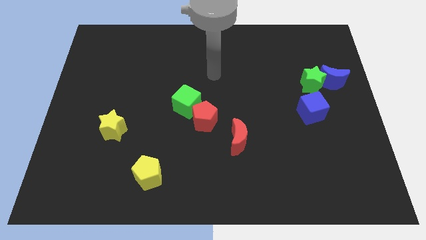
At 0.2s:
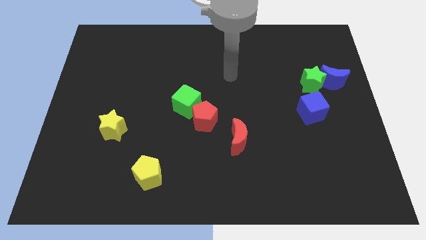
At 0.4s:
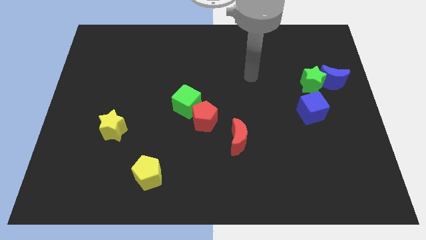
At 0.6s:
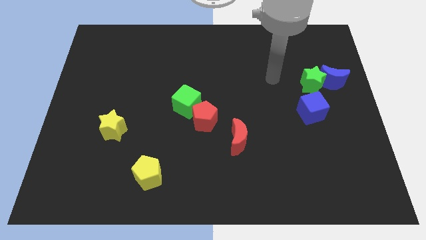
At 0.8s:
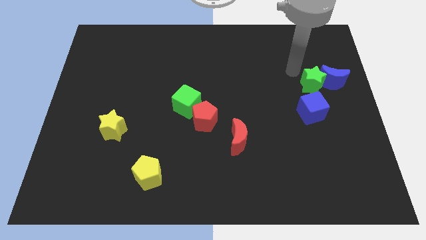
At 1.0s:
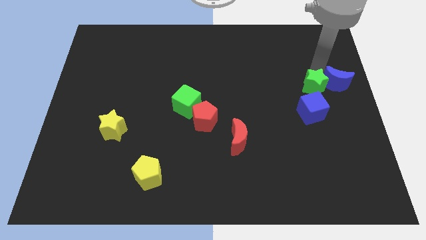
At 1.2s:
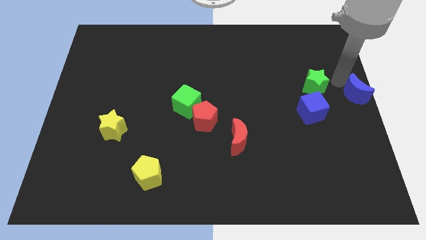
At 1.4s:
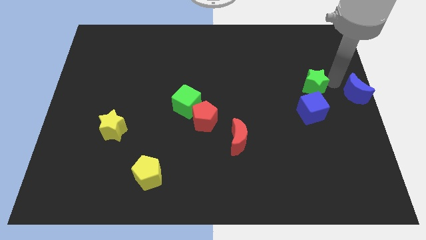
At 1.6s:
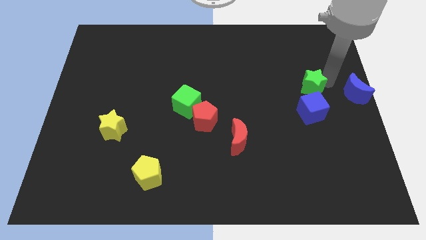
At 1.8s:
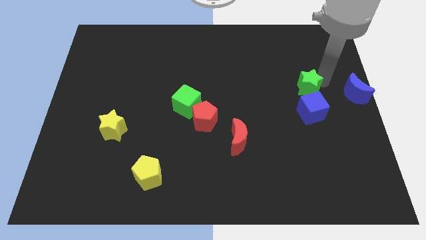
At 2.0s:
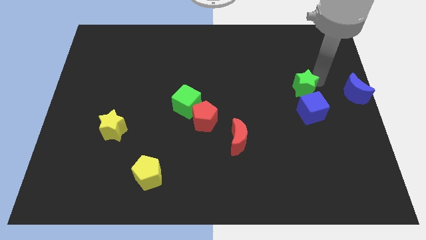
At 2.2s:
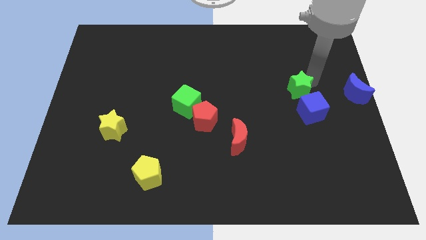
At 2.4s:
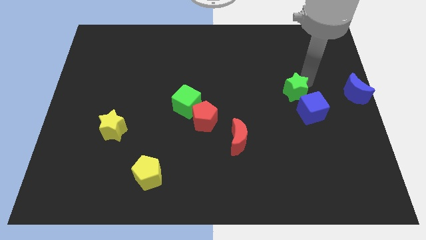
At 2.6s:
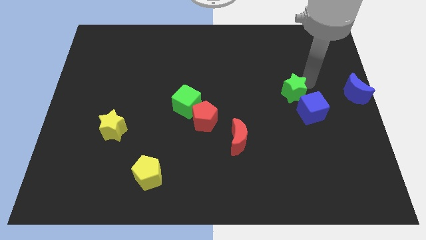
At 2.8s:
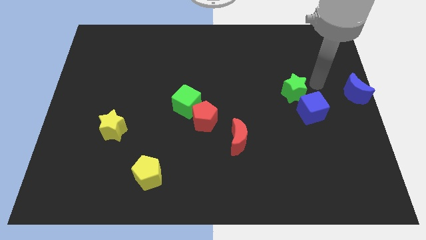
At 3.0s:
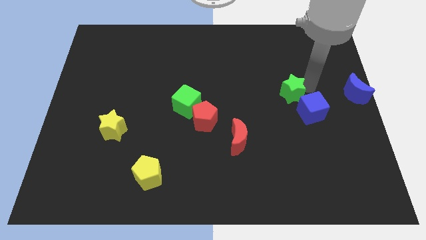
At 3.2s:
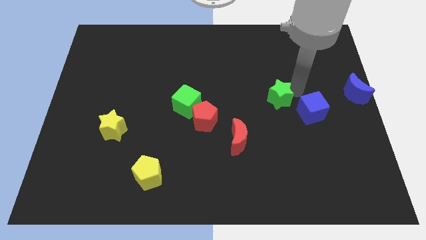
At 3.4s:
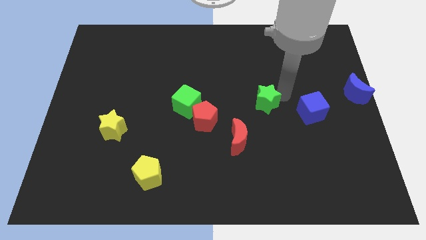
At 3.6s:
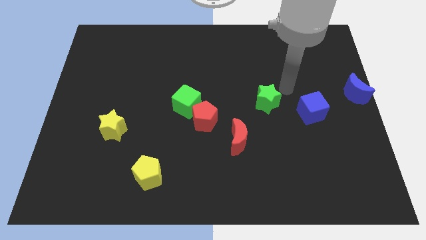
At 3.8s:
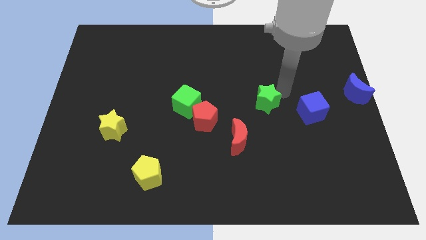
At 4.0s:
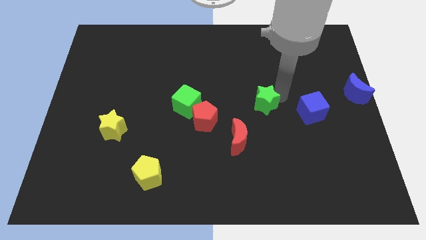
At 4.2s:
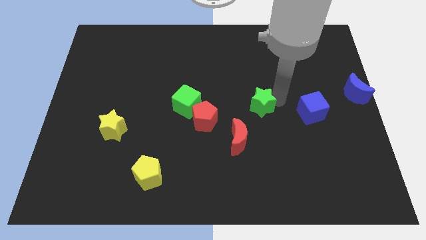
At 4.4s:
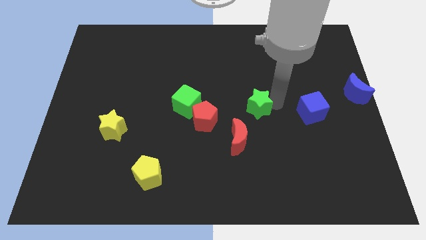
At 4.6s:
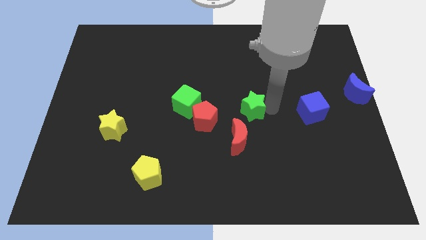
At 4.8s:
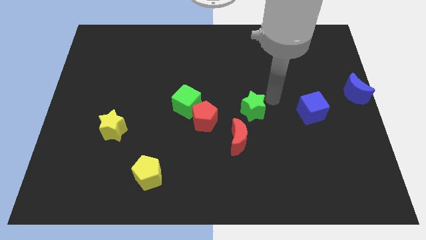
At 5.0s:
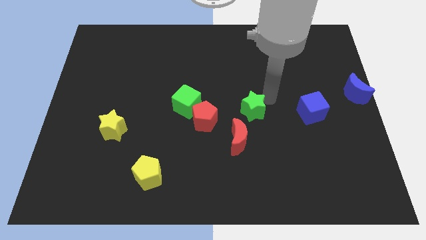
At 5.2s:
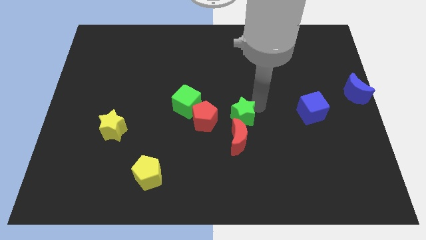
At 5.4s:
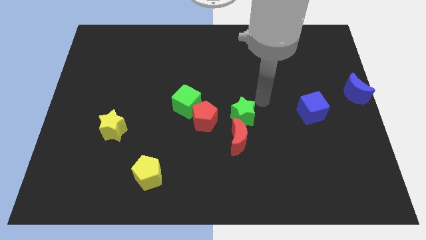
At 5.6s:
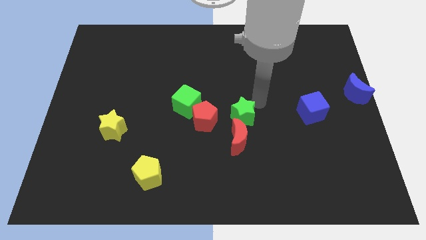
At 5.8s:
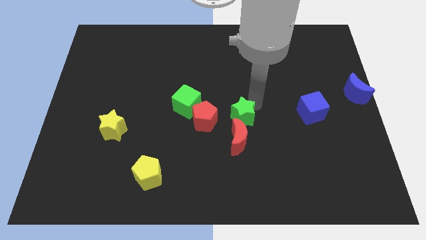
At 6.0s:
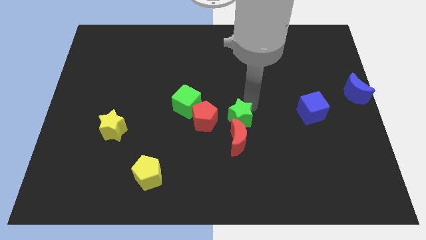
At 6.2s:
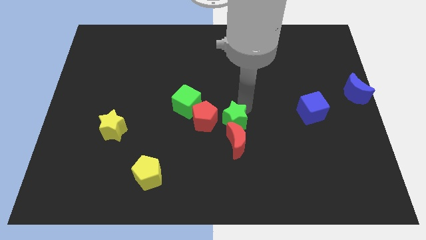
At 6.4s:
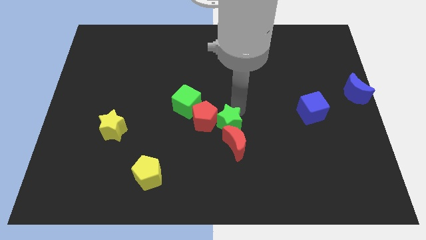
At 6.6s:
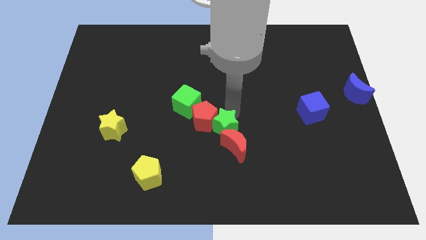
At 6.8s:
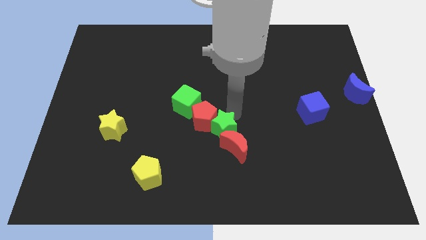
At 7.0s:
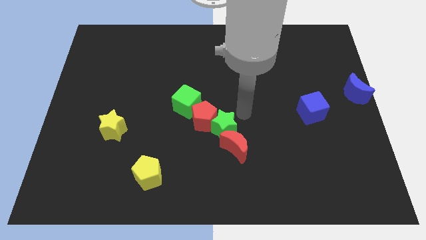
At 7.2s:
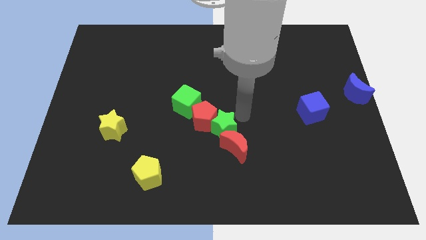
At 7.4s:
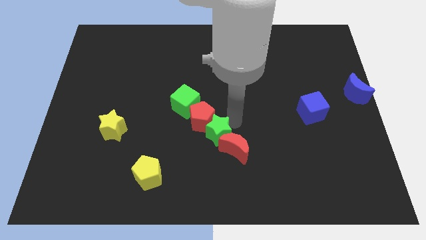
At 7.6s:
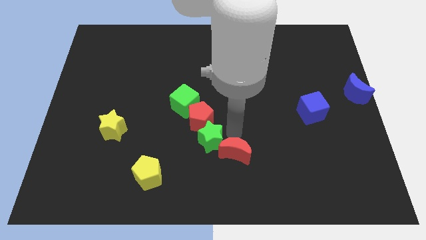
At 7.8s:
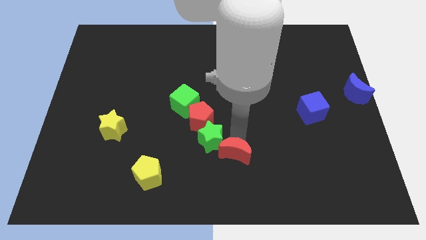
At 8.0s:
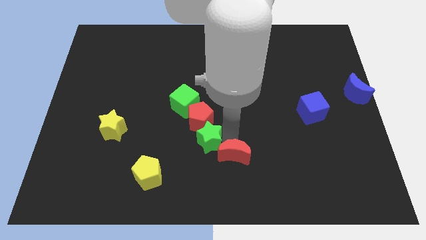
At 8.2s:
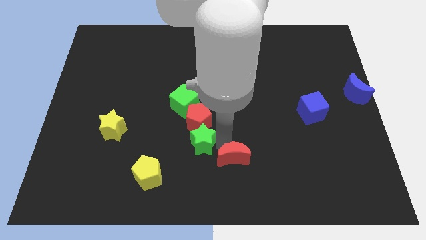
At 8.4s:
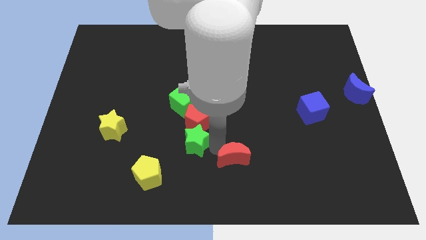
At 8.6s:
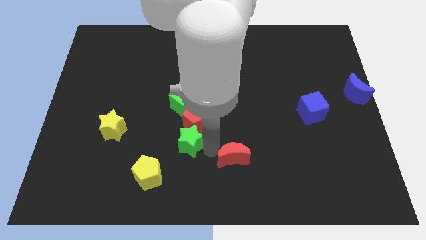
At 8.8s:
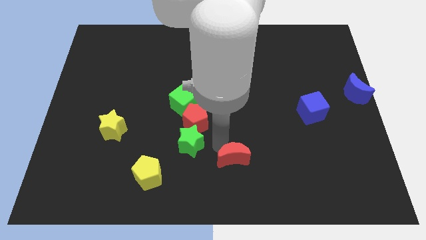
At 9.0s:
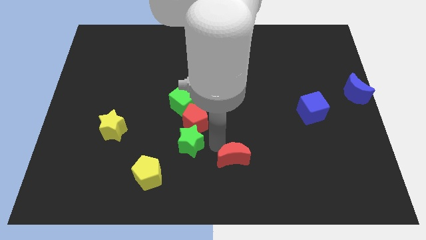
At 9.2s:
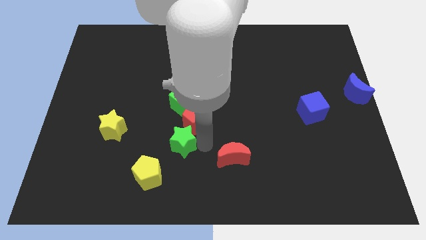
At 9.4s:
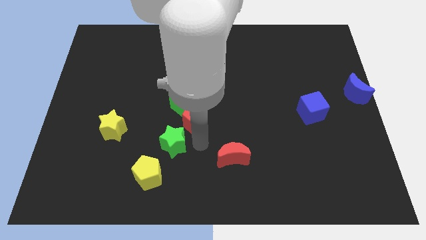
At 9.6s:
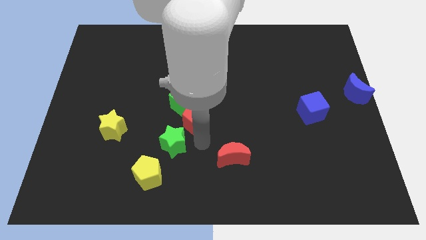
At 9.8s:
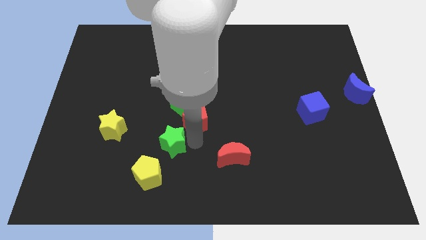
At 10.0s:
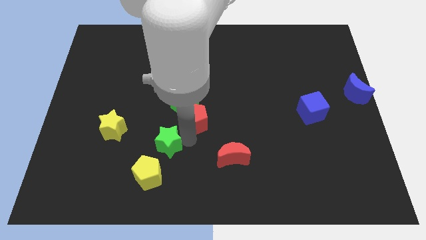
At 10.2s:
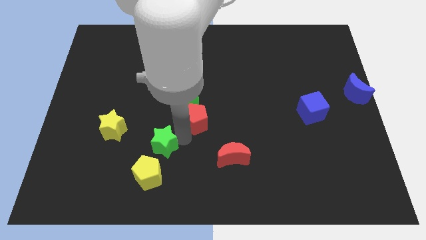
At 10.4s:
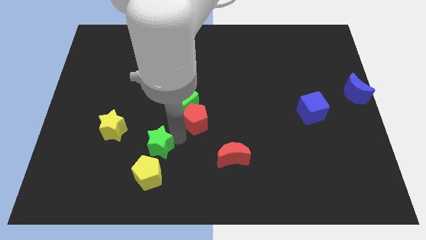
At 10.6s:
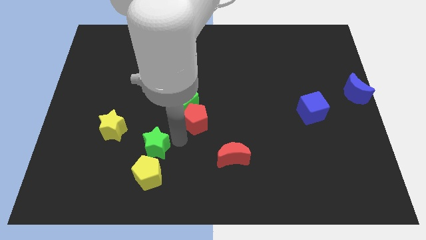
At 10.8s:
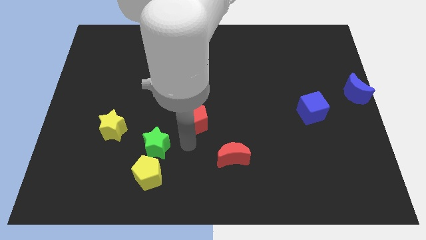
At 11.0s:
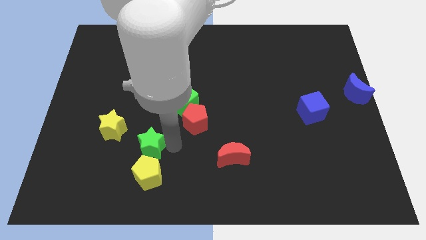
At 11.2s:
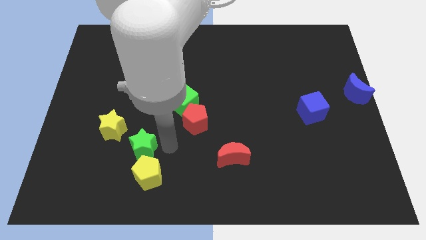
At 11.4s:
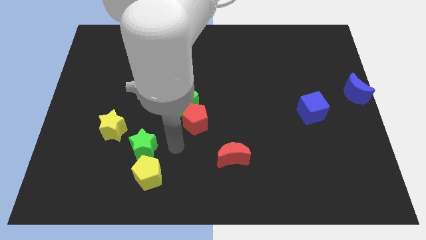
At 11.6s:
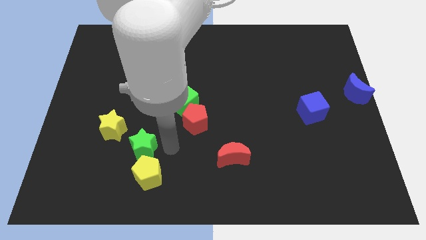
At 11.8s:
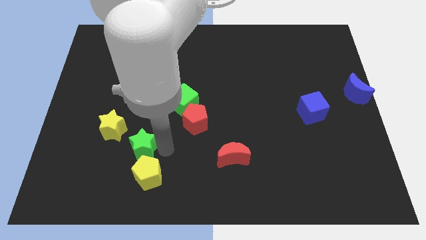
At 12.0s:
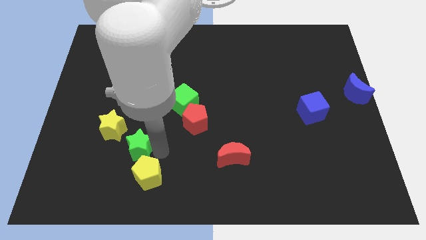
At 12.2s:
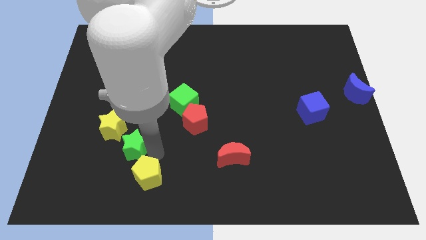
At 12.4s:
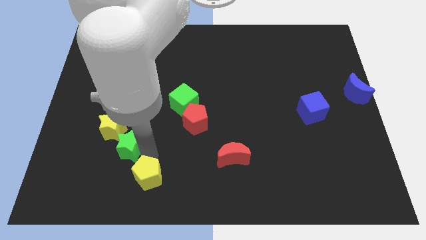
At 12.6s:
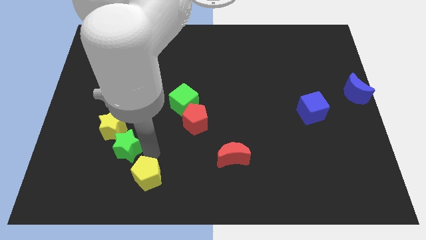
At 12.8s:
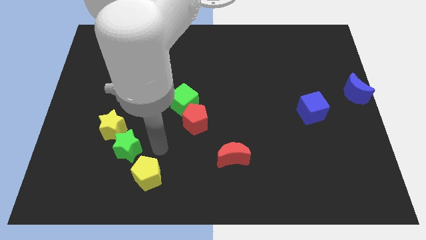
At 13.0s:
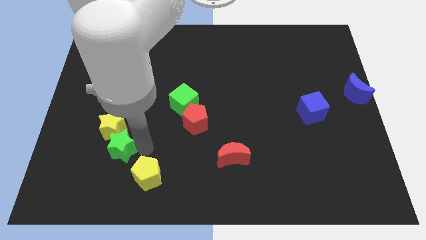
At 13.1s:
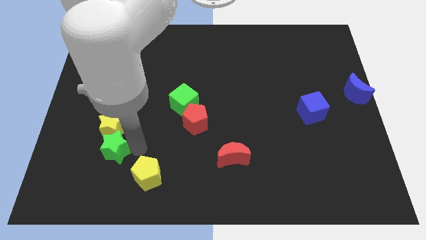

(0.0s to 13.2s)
slide the green star to the bottom left of the yellow star
